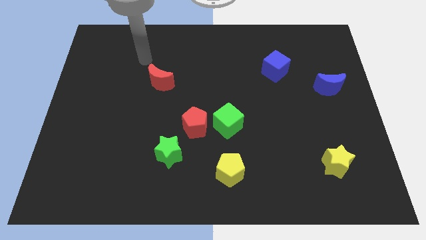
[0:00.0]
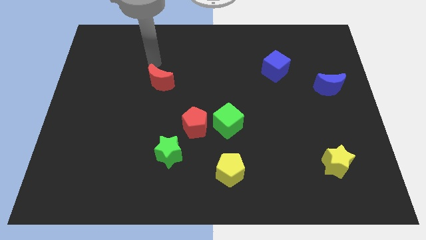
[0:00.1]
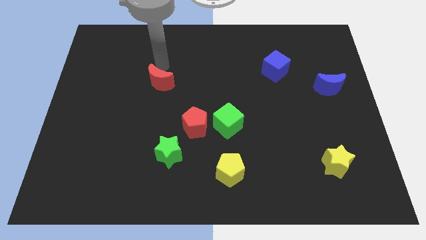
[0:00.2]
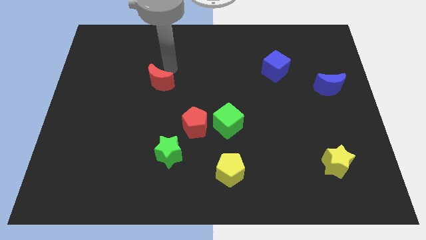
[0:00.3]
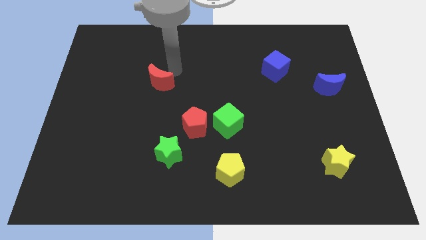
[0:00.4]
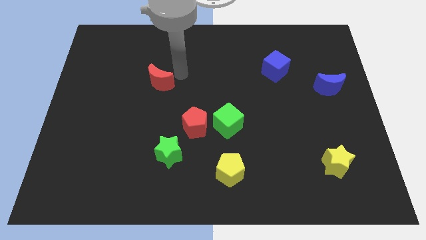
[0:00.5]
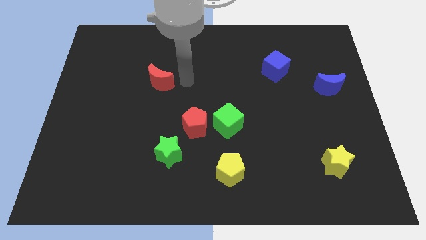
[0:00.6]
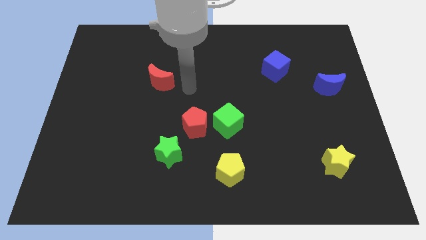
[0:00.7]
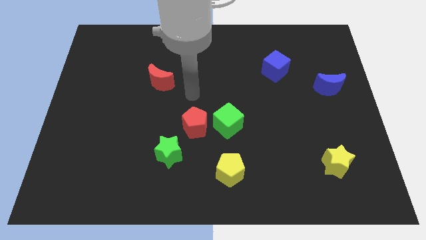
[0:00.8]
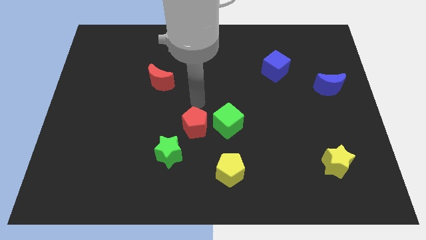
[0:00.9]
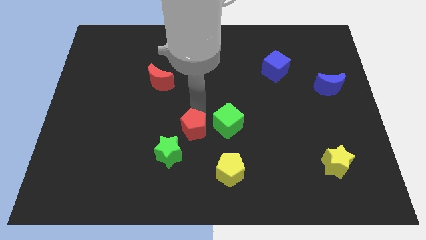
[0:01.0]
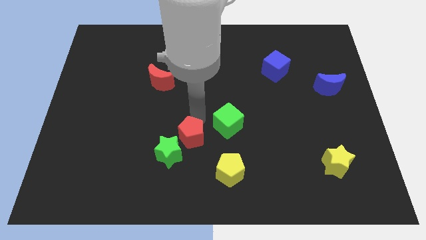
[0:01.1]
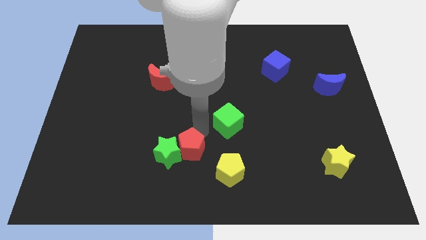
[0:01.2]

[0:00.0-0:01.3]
separate the green cube from the red pentagon

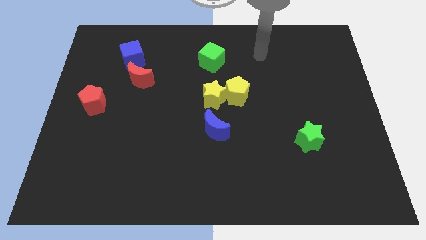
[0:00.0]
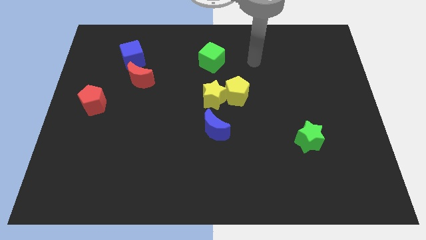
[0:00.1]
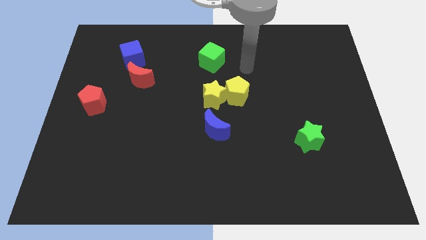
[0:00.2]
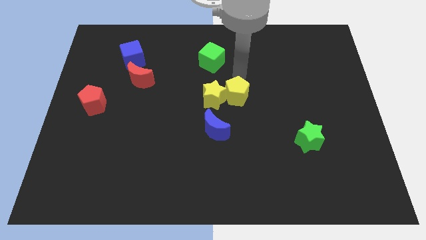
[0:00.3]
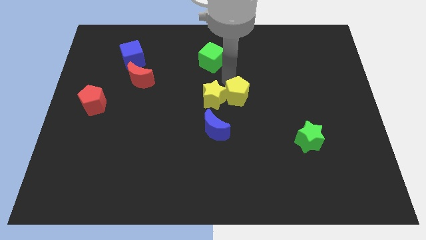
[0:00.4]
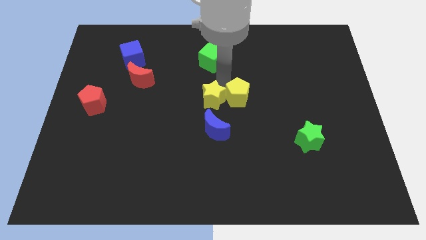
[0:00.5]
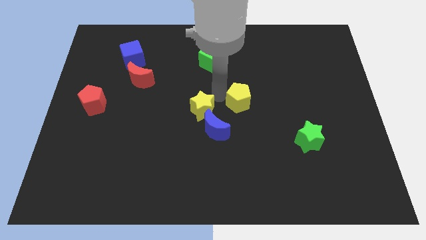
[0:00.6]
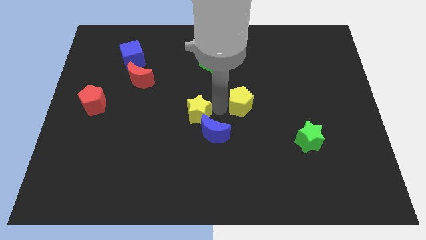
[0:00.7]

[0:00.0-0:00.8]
move the yellow pentagon away from the yellow star

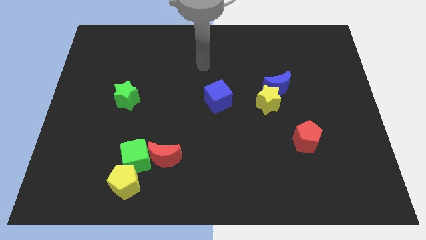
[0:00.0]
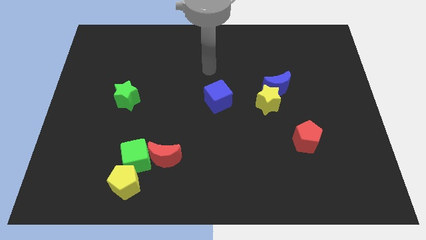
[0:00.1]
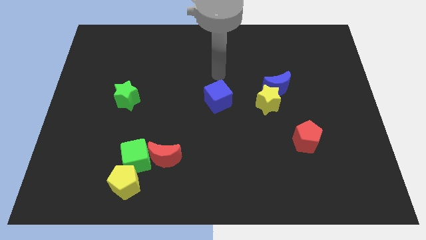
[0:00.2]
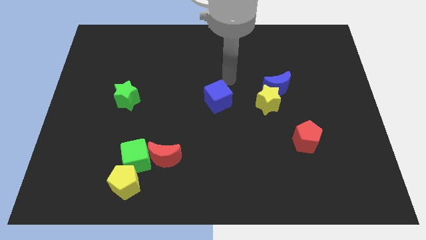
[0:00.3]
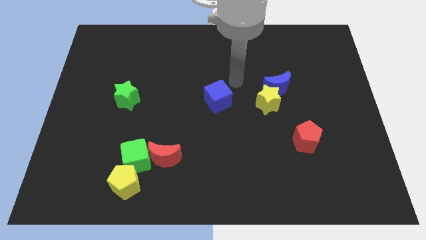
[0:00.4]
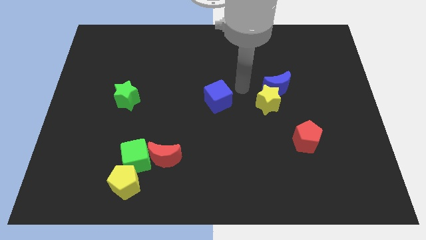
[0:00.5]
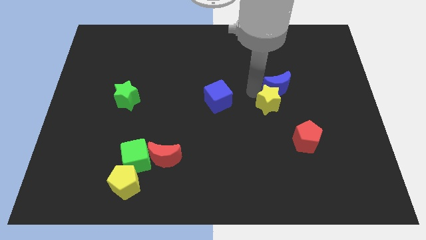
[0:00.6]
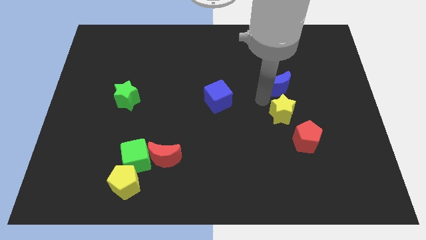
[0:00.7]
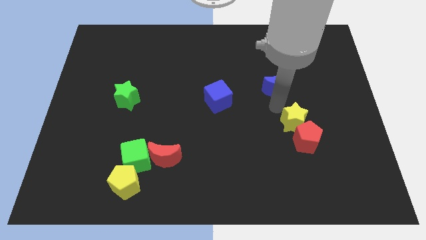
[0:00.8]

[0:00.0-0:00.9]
move the blue moon away from the yellow star

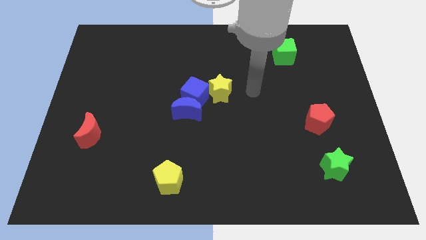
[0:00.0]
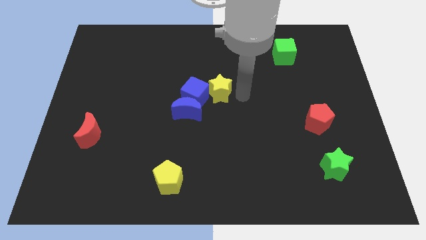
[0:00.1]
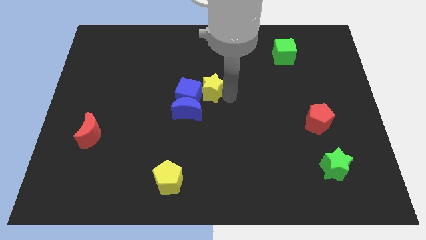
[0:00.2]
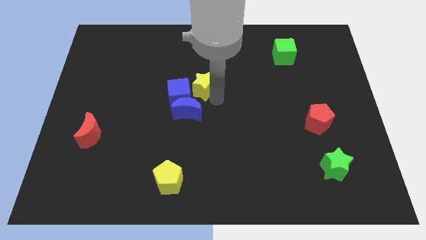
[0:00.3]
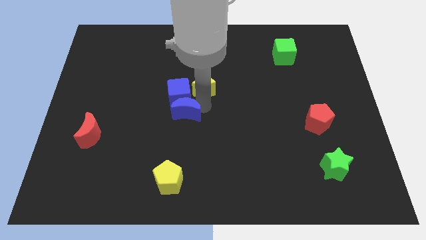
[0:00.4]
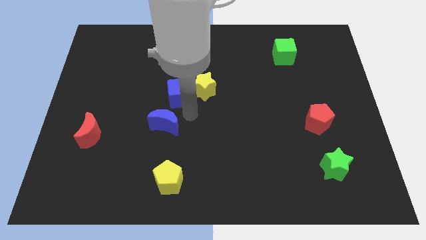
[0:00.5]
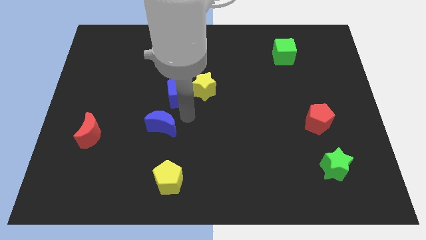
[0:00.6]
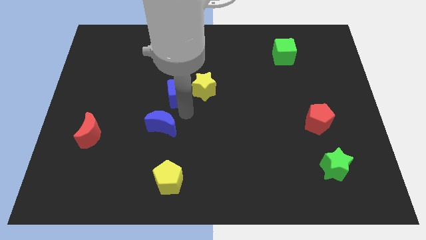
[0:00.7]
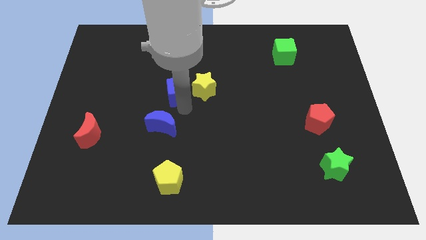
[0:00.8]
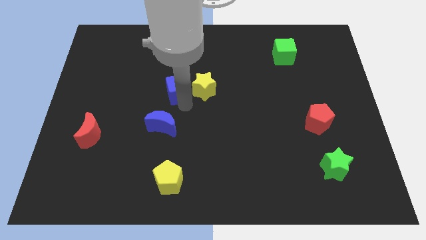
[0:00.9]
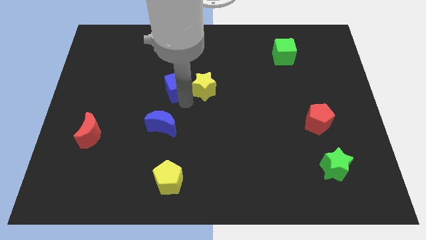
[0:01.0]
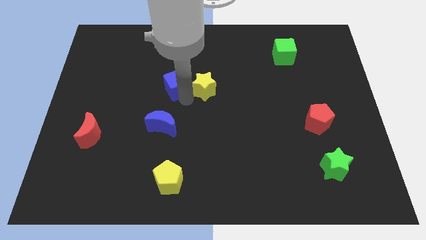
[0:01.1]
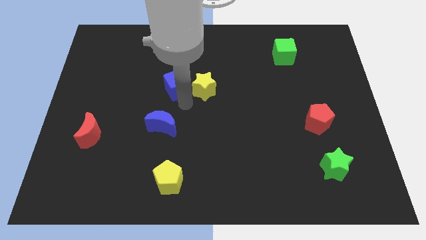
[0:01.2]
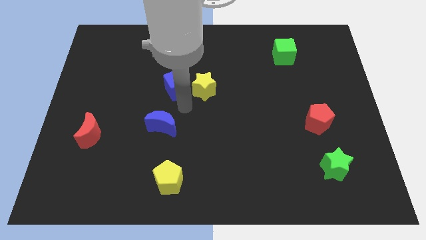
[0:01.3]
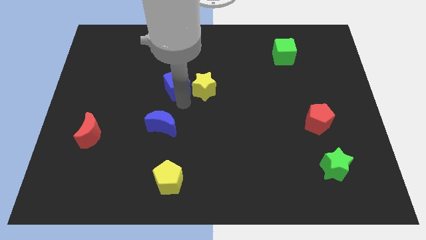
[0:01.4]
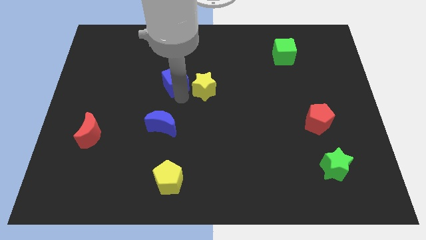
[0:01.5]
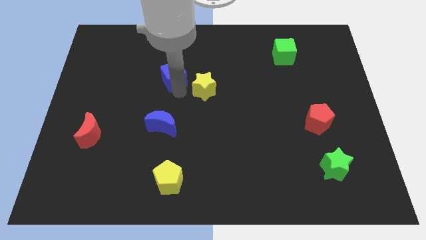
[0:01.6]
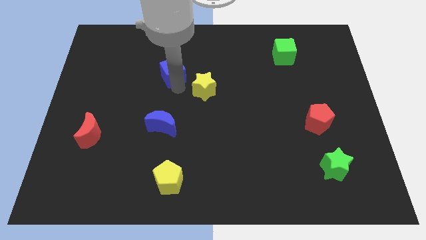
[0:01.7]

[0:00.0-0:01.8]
pull the blue cube apart from the blue moon and yellow star

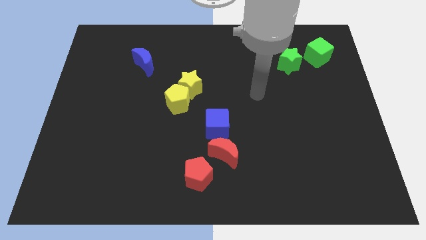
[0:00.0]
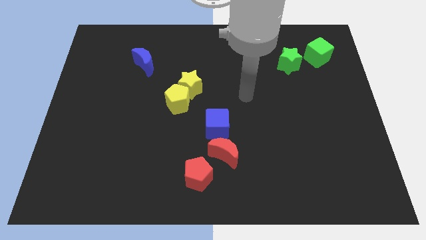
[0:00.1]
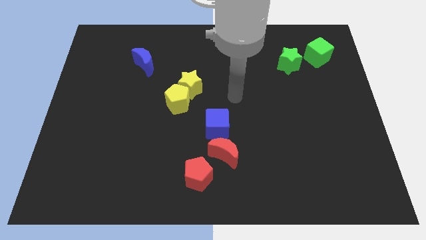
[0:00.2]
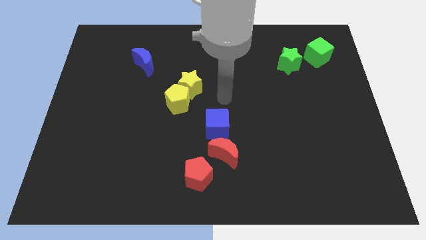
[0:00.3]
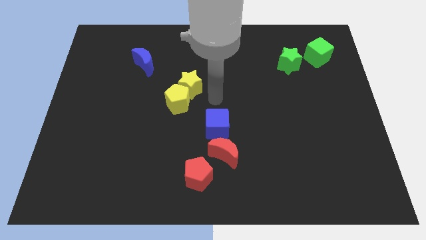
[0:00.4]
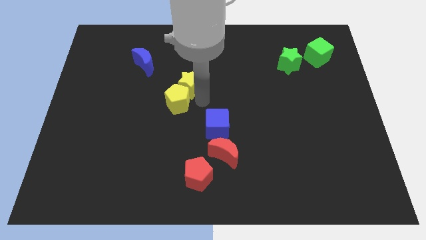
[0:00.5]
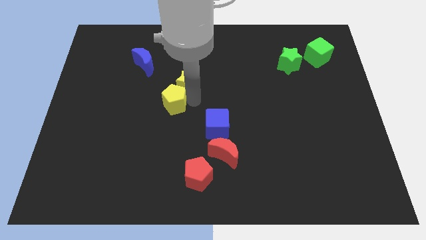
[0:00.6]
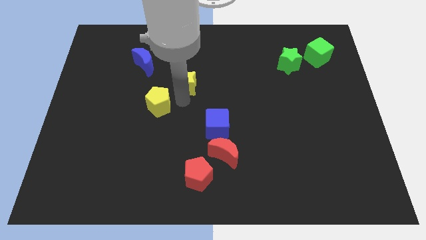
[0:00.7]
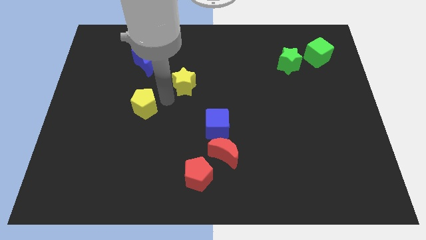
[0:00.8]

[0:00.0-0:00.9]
separate the yellow star from the yellow pentagon

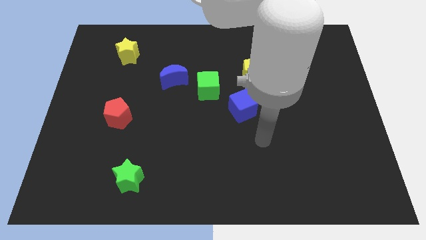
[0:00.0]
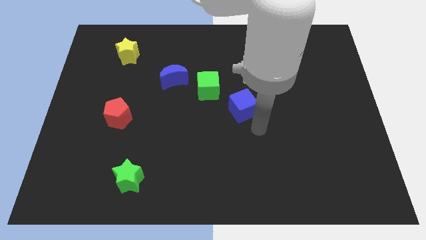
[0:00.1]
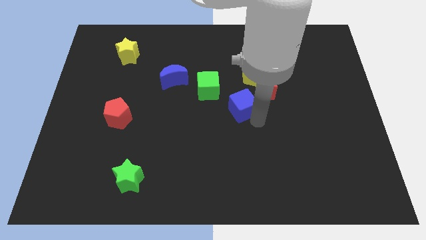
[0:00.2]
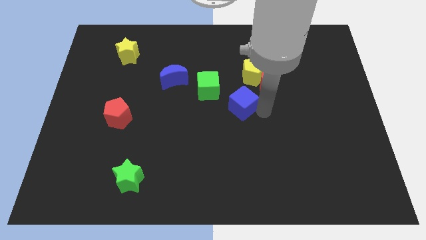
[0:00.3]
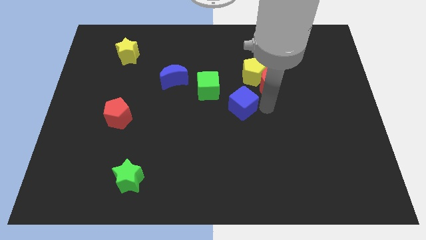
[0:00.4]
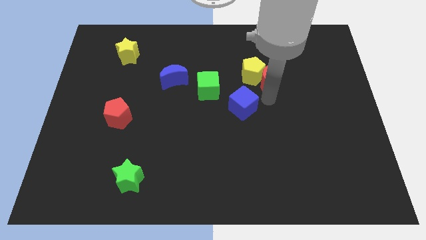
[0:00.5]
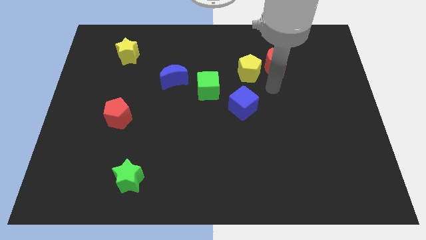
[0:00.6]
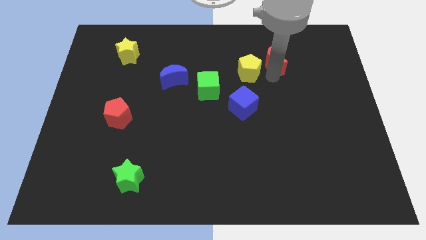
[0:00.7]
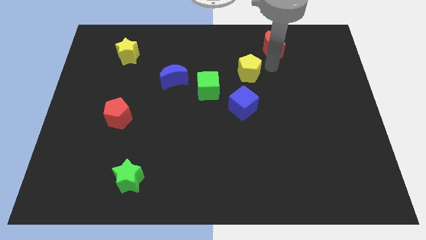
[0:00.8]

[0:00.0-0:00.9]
pull the yellow pentagon apart from the red moon

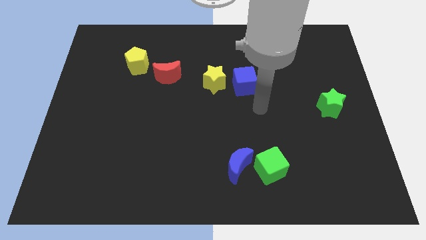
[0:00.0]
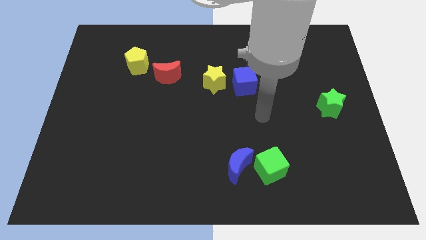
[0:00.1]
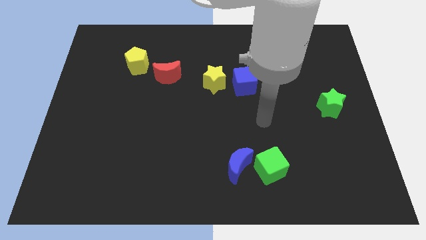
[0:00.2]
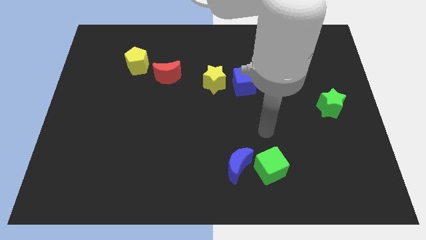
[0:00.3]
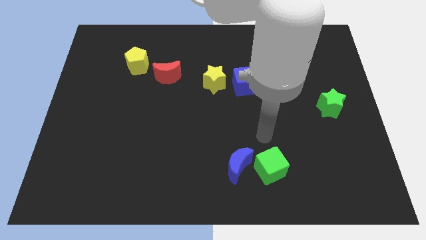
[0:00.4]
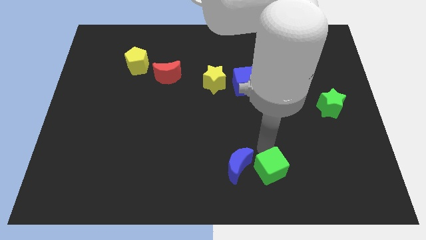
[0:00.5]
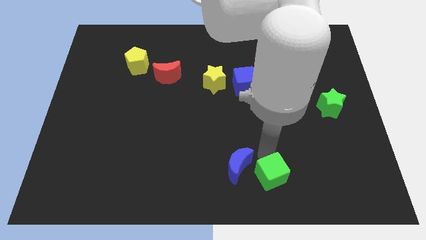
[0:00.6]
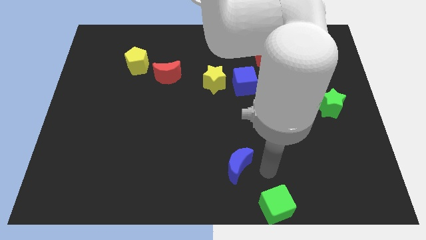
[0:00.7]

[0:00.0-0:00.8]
move the blue moon away from the green cube

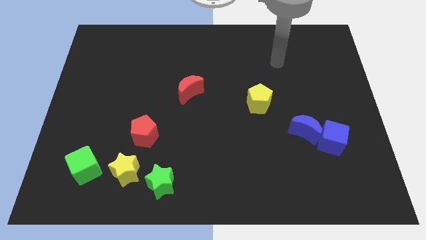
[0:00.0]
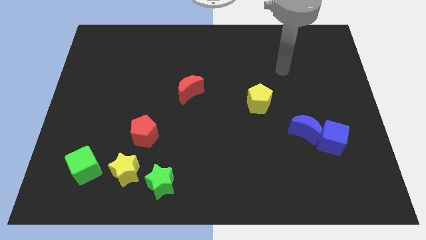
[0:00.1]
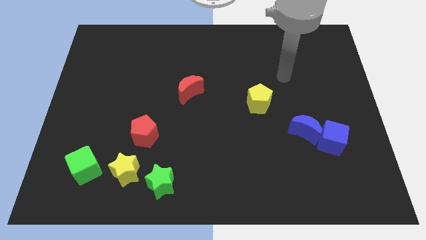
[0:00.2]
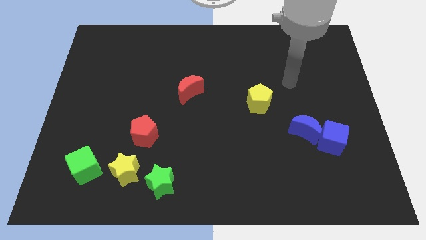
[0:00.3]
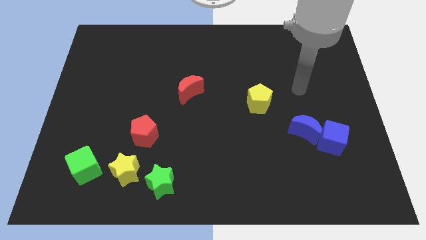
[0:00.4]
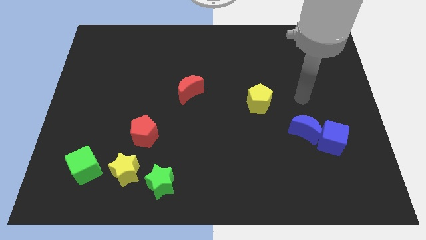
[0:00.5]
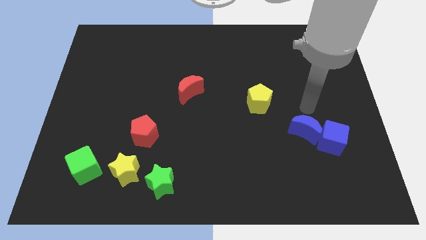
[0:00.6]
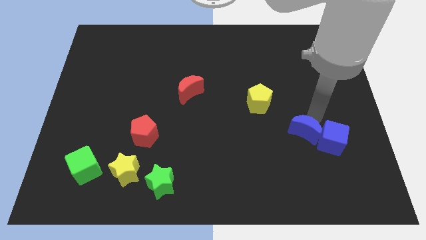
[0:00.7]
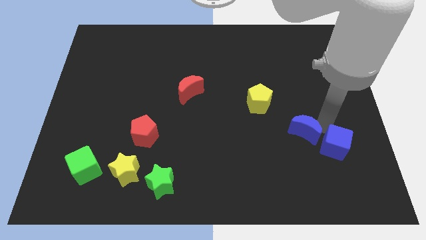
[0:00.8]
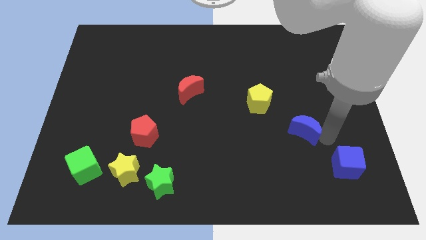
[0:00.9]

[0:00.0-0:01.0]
move the blue moon away from the blue cube

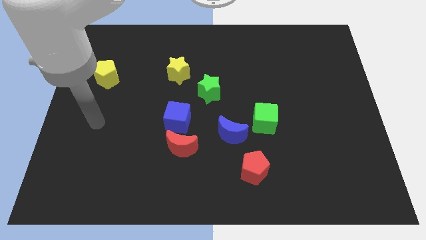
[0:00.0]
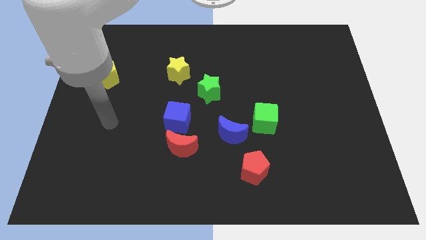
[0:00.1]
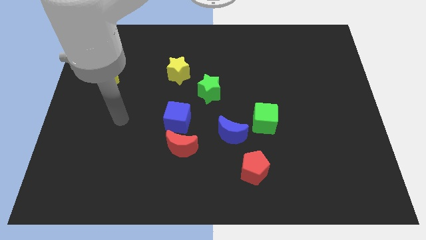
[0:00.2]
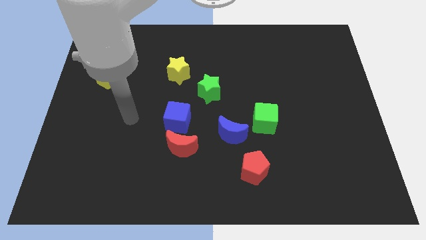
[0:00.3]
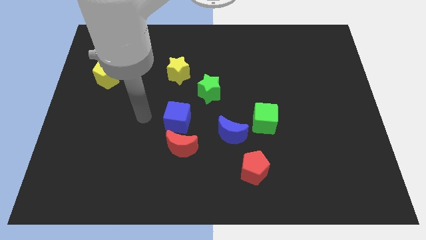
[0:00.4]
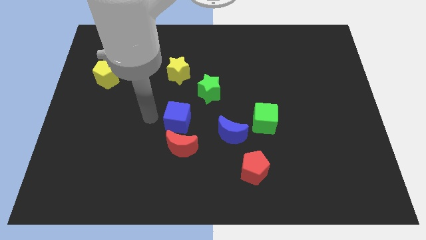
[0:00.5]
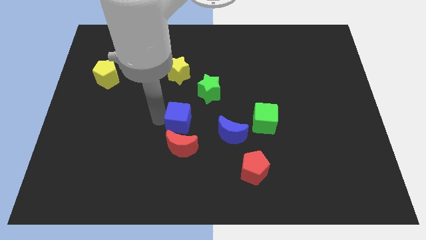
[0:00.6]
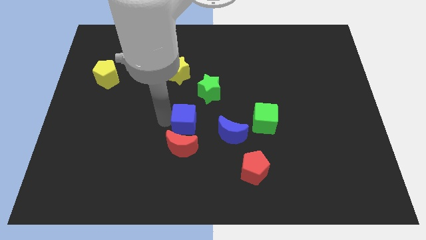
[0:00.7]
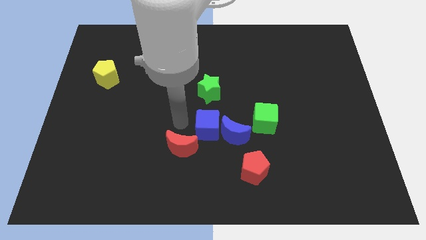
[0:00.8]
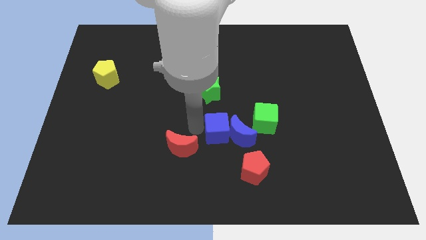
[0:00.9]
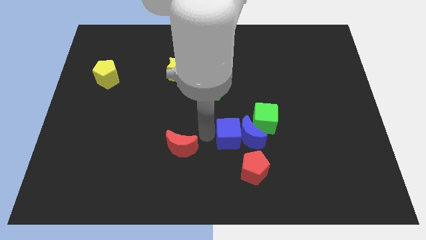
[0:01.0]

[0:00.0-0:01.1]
pull the red moon apart from the blue cube
